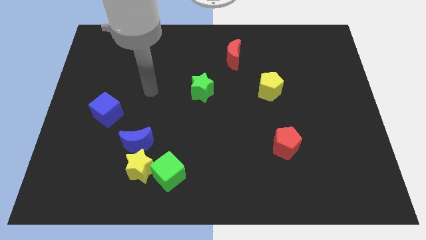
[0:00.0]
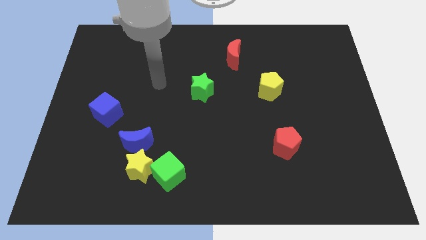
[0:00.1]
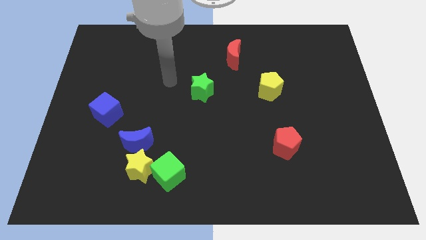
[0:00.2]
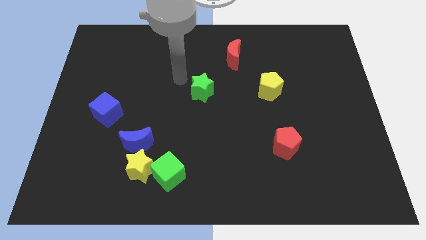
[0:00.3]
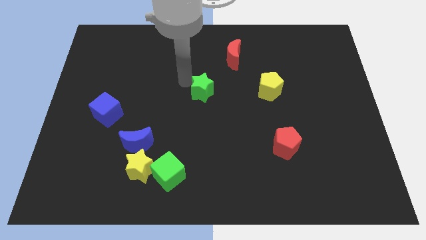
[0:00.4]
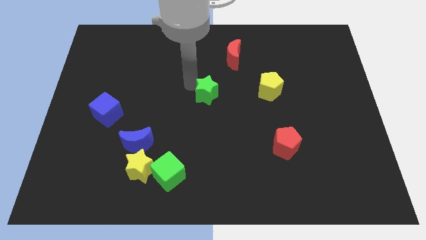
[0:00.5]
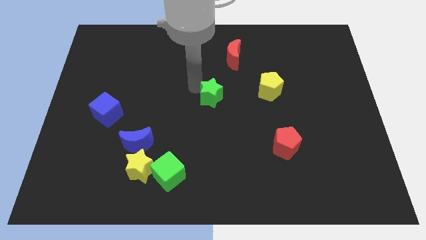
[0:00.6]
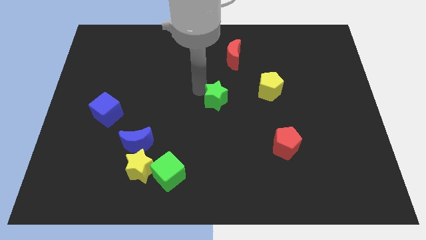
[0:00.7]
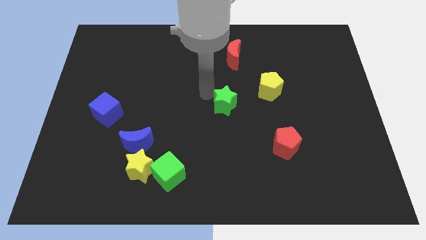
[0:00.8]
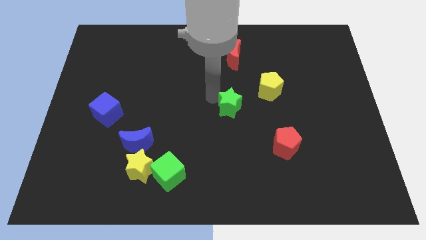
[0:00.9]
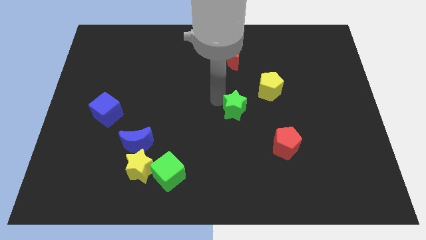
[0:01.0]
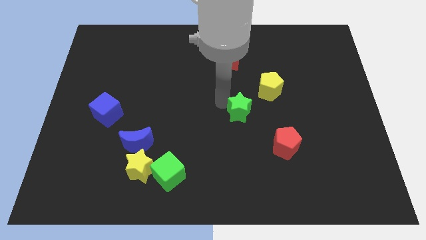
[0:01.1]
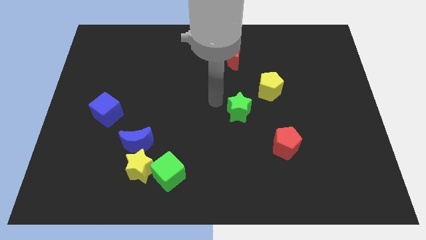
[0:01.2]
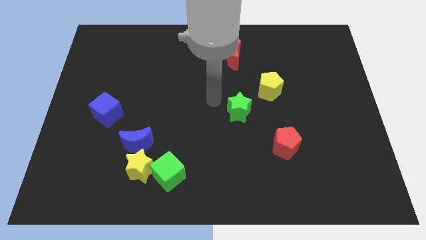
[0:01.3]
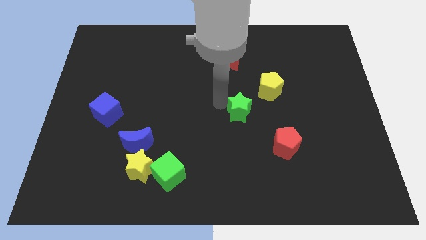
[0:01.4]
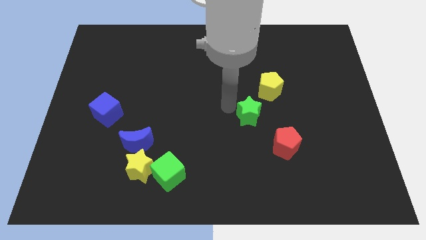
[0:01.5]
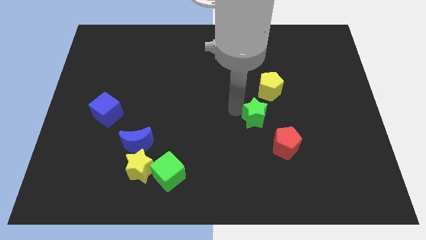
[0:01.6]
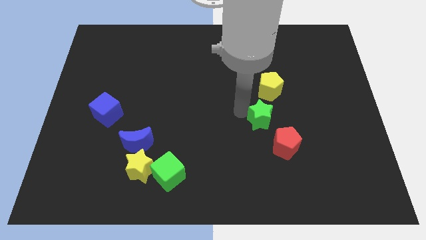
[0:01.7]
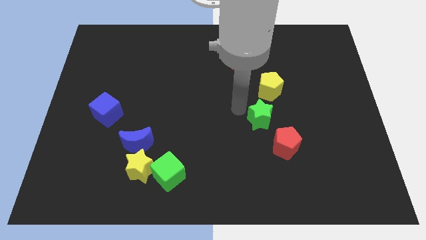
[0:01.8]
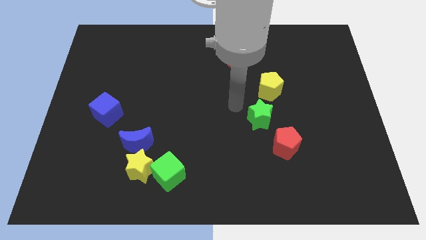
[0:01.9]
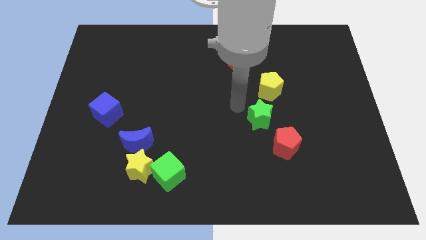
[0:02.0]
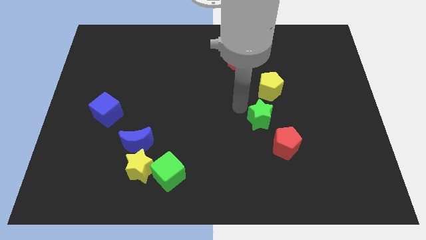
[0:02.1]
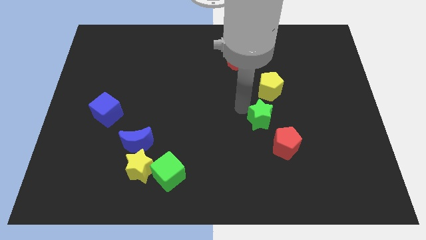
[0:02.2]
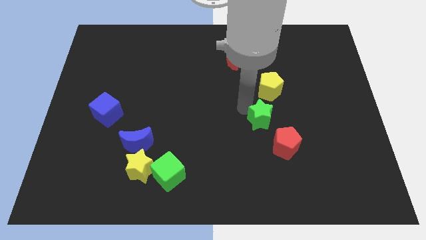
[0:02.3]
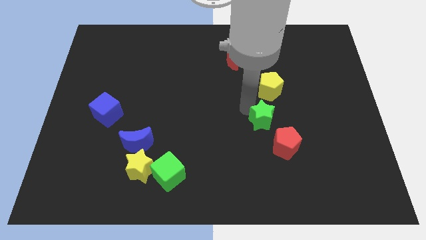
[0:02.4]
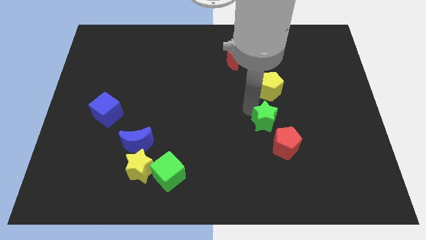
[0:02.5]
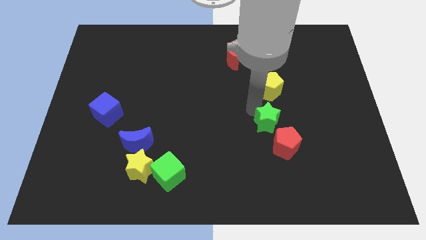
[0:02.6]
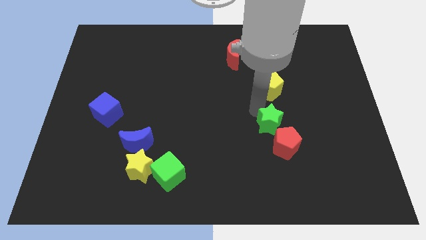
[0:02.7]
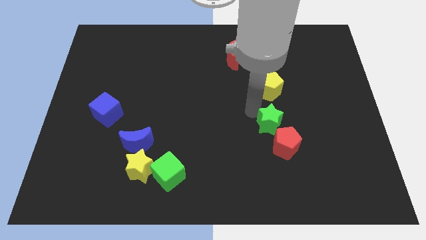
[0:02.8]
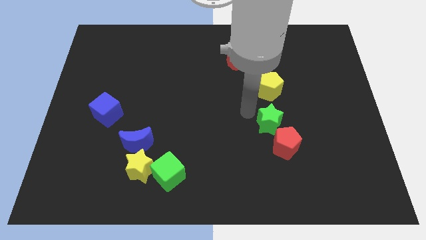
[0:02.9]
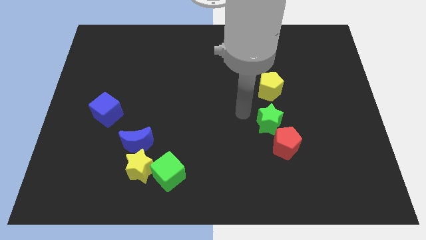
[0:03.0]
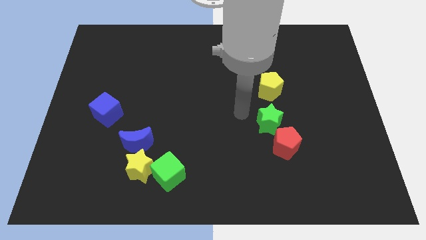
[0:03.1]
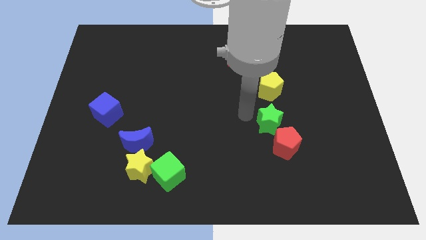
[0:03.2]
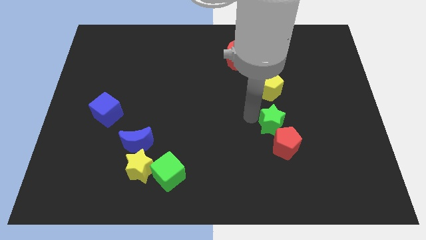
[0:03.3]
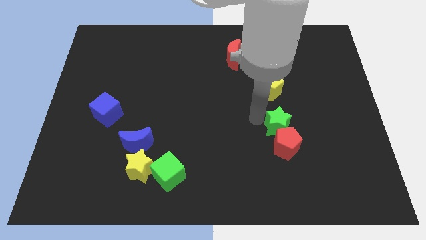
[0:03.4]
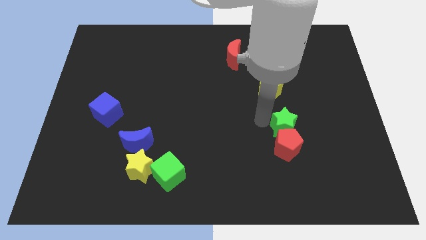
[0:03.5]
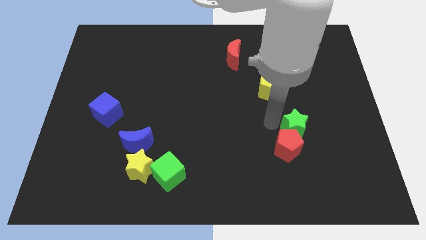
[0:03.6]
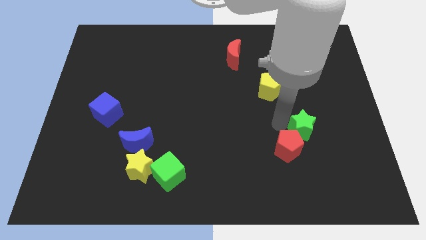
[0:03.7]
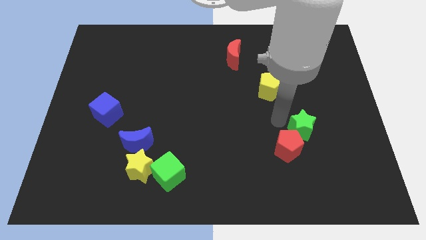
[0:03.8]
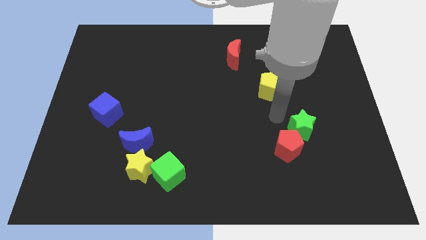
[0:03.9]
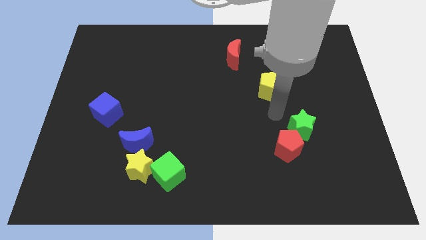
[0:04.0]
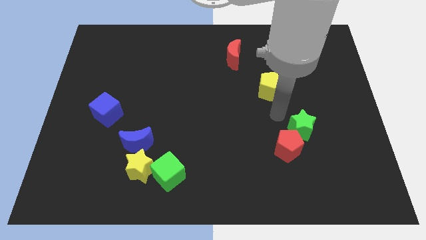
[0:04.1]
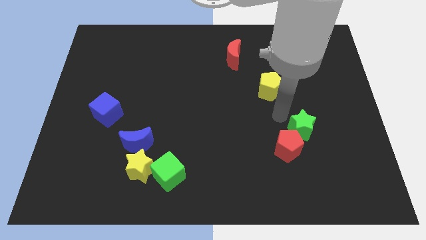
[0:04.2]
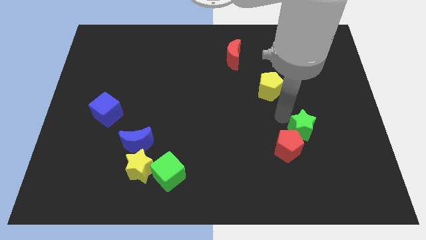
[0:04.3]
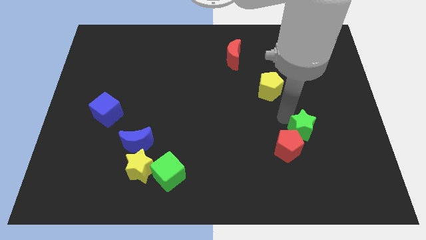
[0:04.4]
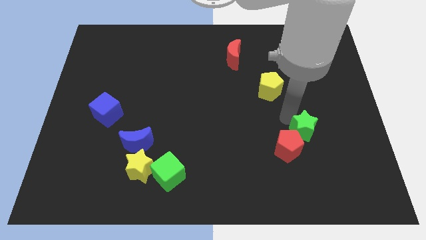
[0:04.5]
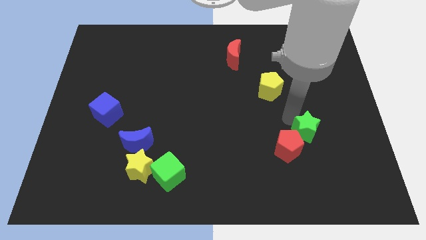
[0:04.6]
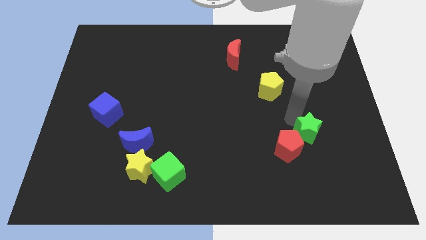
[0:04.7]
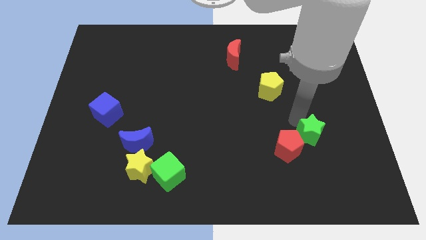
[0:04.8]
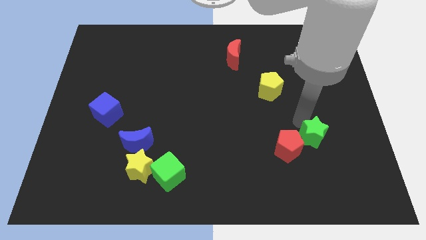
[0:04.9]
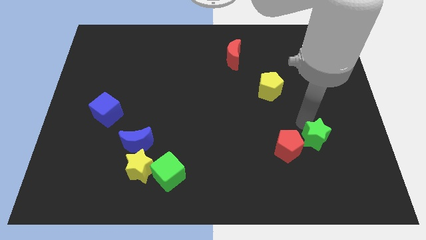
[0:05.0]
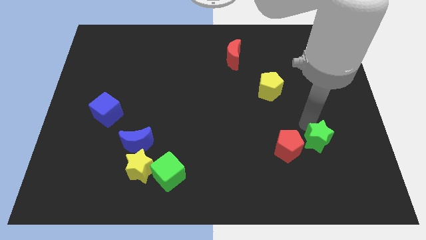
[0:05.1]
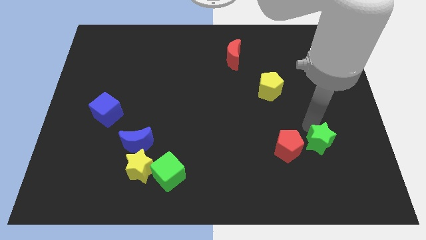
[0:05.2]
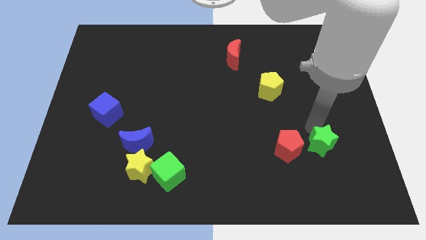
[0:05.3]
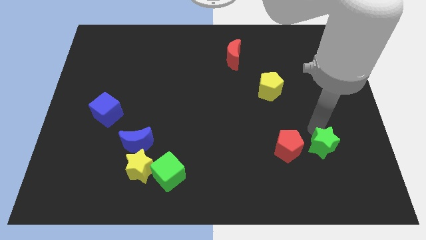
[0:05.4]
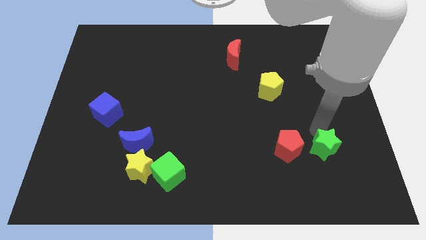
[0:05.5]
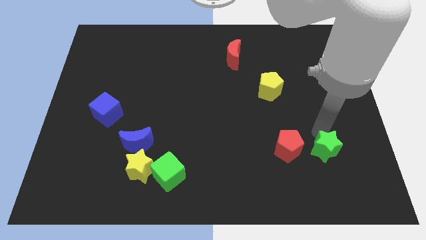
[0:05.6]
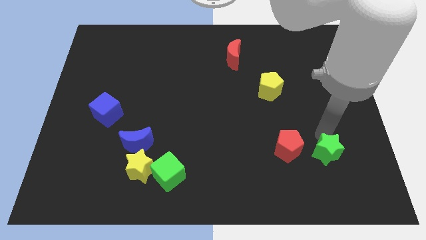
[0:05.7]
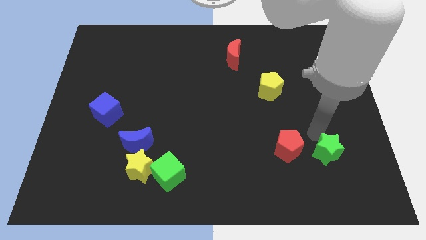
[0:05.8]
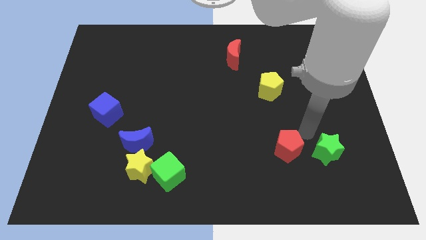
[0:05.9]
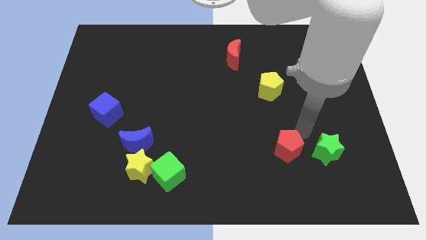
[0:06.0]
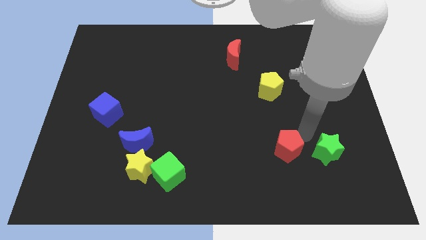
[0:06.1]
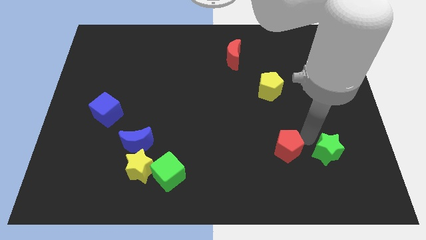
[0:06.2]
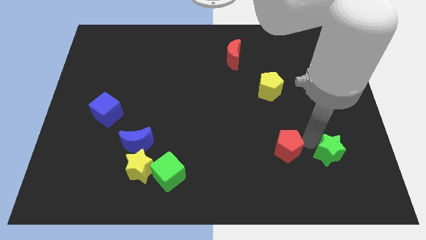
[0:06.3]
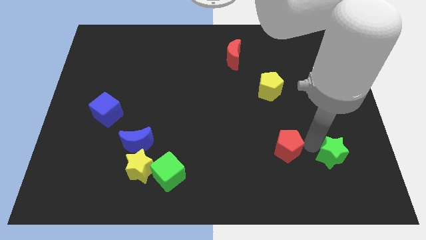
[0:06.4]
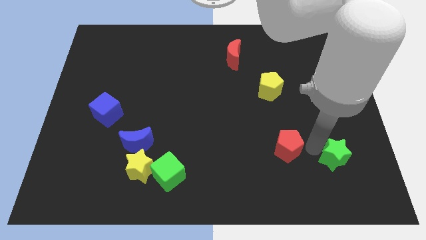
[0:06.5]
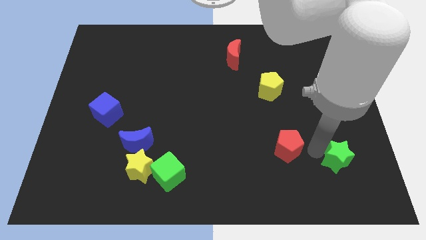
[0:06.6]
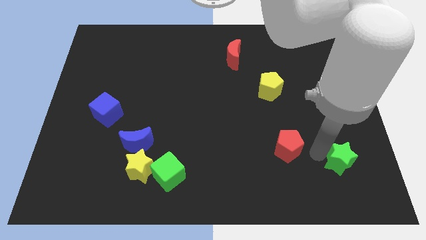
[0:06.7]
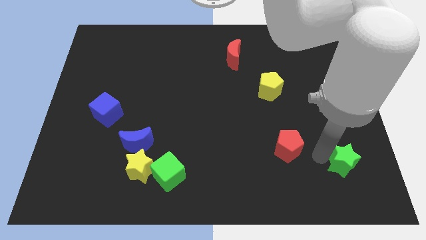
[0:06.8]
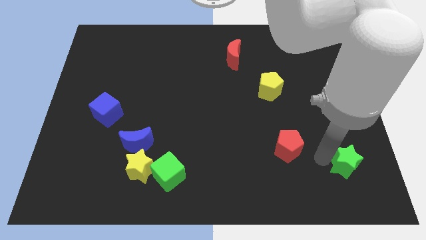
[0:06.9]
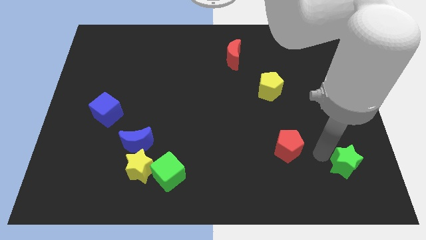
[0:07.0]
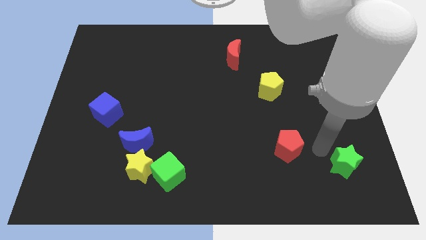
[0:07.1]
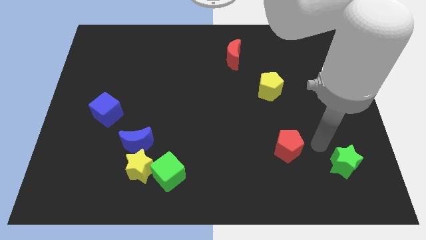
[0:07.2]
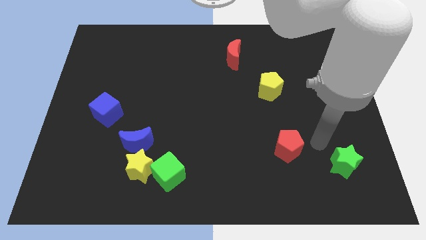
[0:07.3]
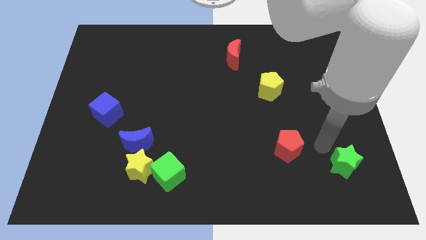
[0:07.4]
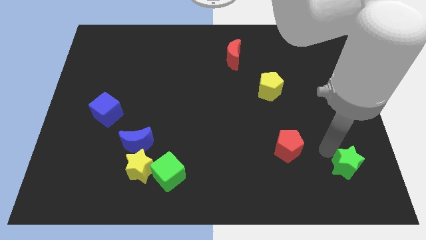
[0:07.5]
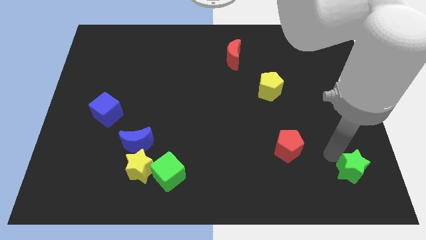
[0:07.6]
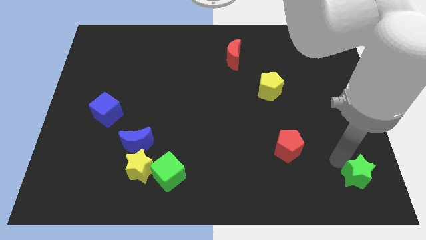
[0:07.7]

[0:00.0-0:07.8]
move the green star to the bottom right corner
